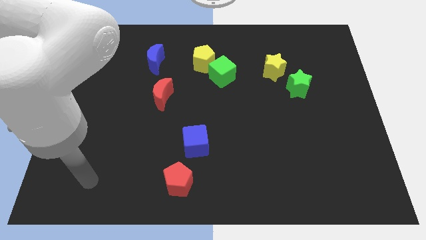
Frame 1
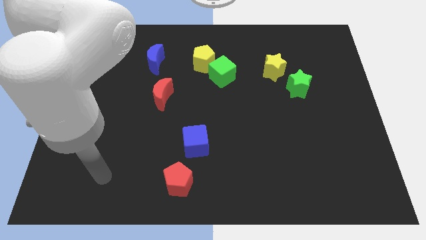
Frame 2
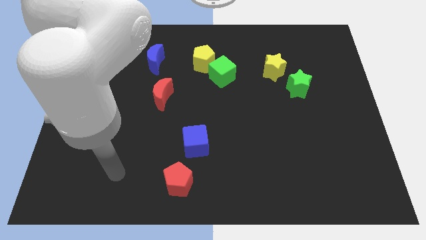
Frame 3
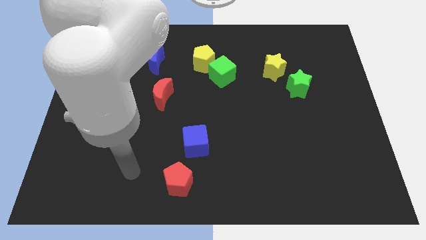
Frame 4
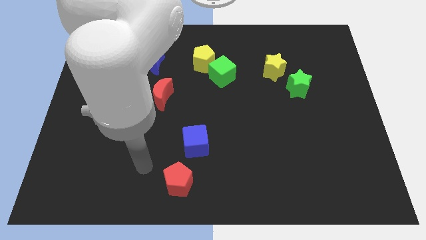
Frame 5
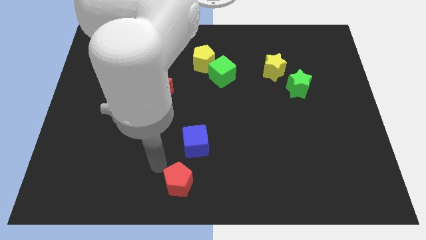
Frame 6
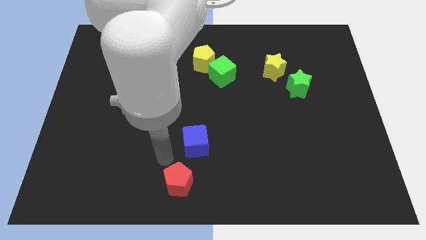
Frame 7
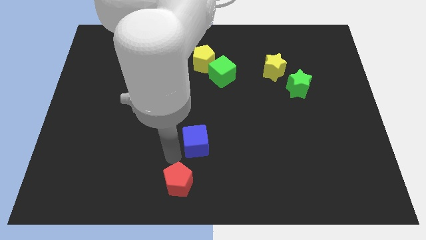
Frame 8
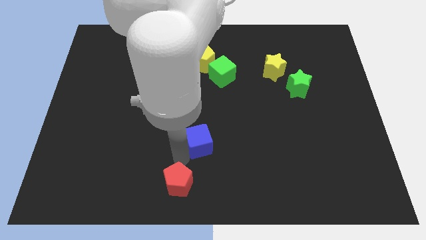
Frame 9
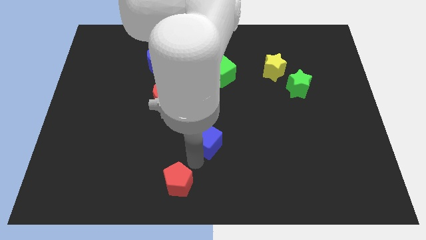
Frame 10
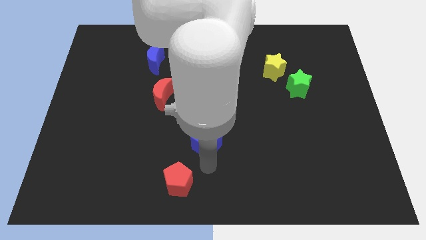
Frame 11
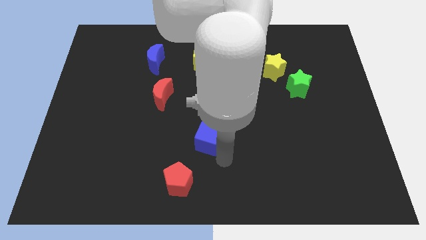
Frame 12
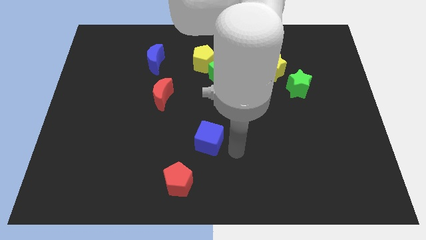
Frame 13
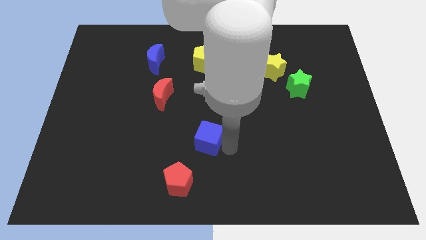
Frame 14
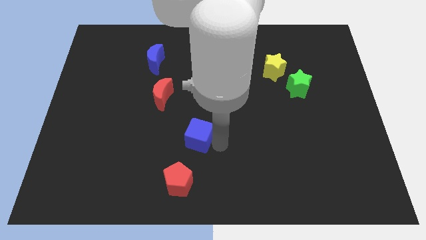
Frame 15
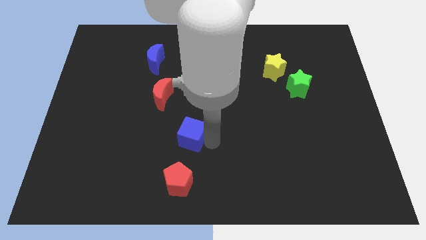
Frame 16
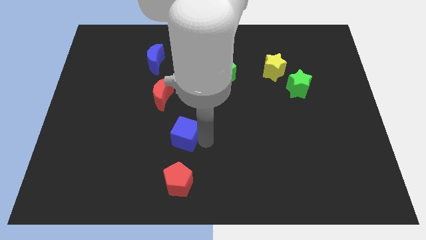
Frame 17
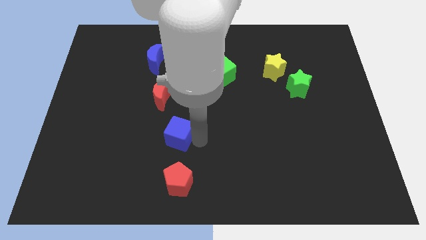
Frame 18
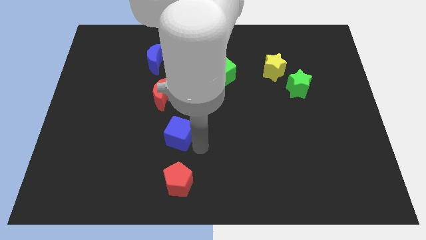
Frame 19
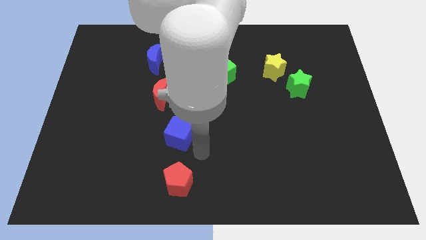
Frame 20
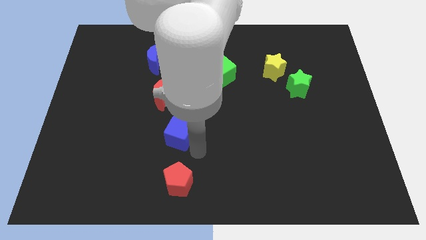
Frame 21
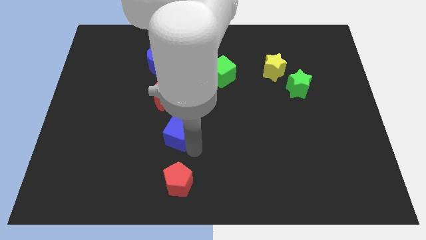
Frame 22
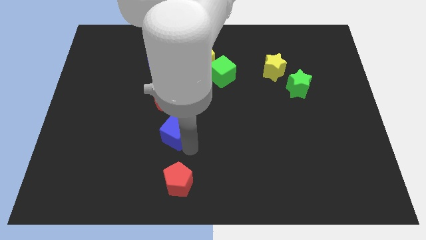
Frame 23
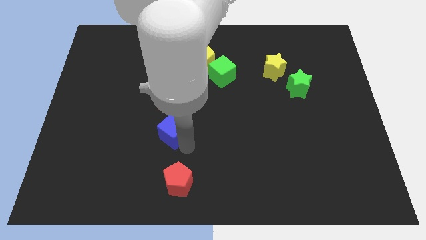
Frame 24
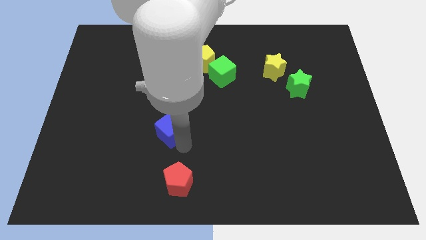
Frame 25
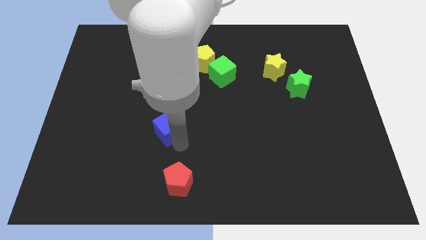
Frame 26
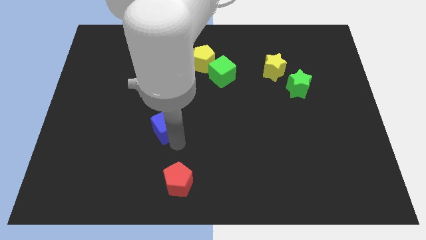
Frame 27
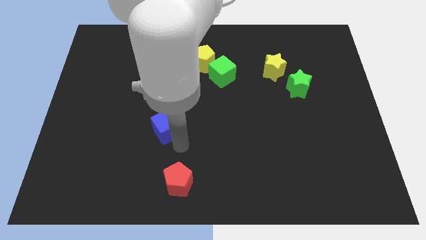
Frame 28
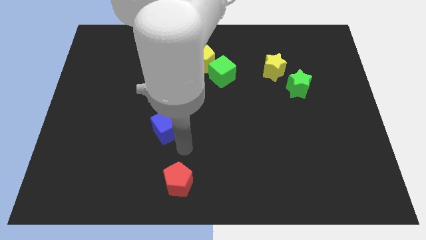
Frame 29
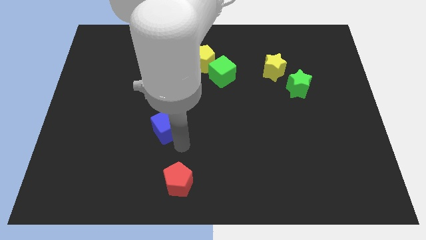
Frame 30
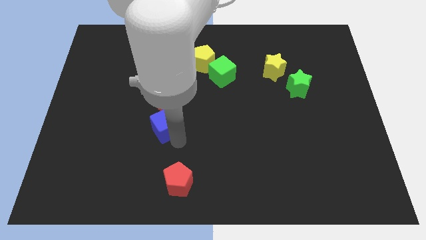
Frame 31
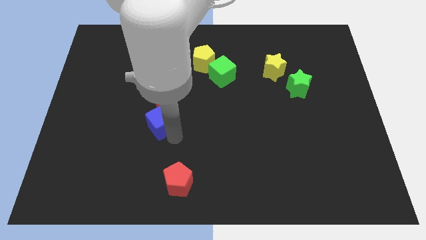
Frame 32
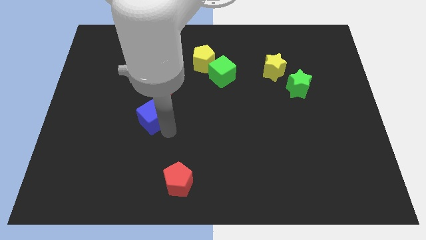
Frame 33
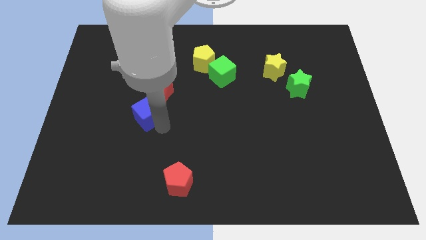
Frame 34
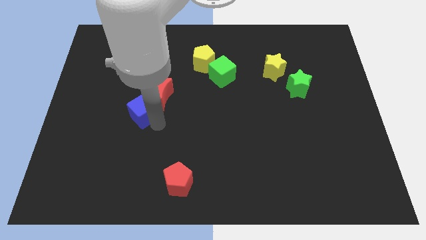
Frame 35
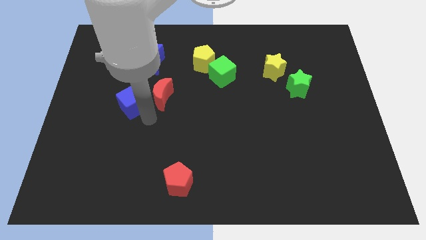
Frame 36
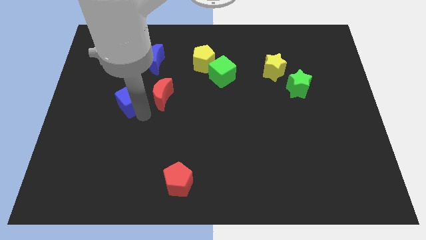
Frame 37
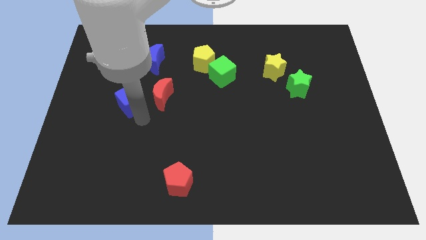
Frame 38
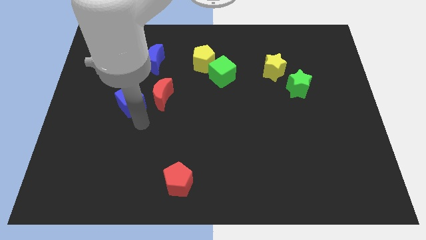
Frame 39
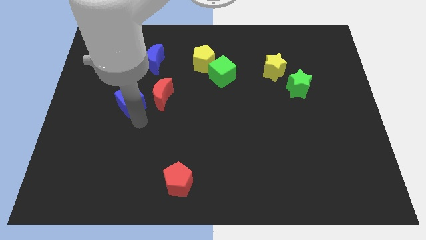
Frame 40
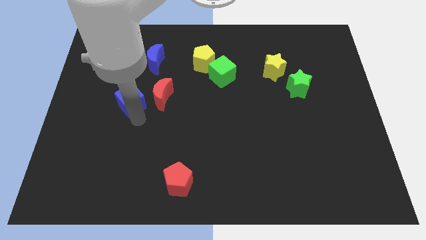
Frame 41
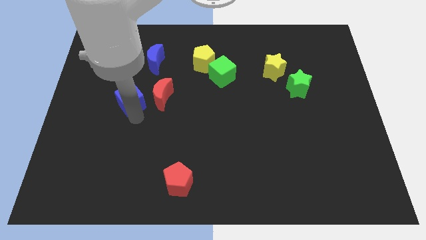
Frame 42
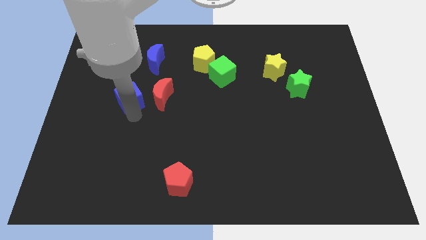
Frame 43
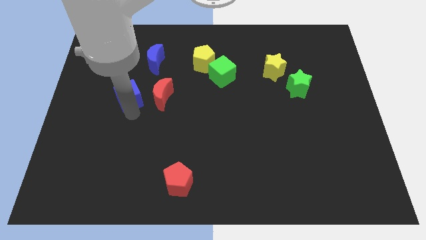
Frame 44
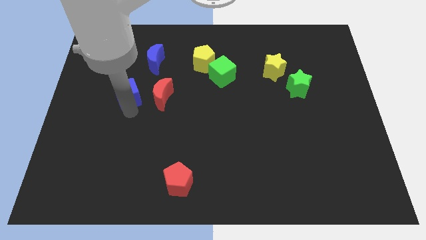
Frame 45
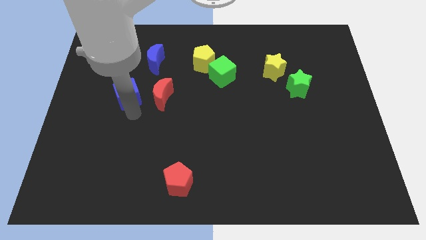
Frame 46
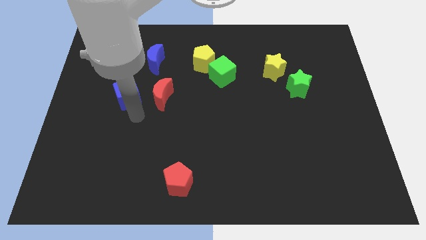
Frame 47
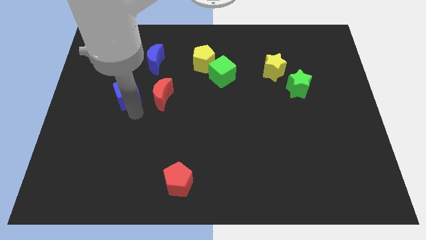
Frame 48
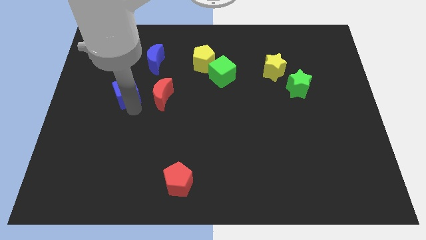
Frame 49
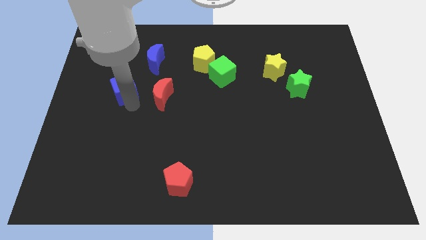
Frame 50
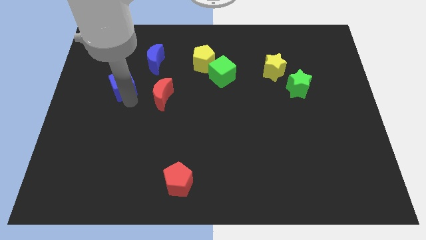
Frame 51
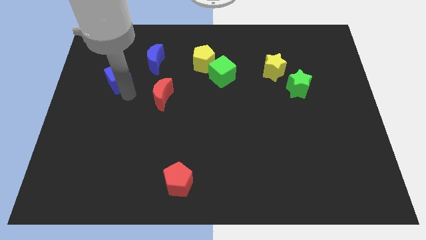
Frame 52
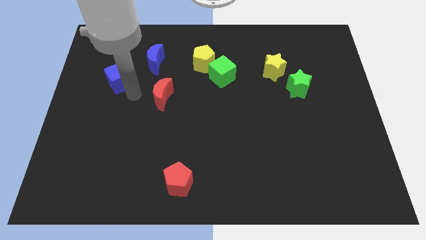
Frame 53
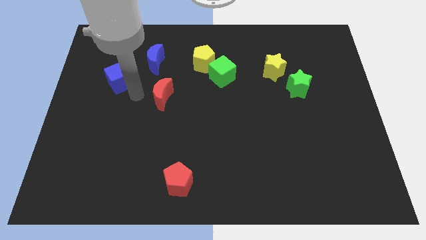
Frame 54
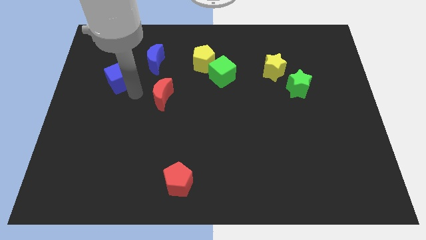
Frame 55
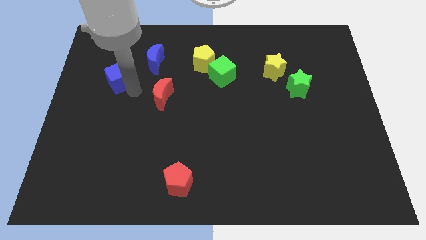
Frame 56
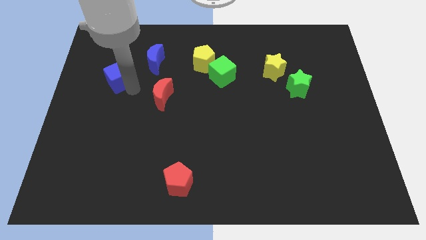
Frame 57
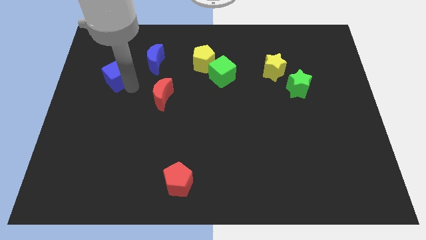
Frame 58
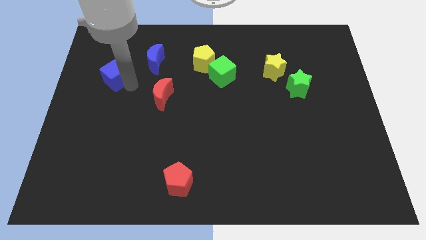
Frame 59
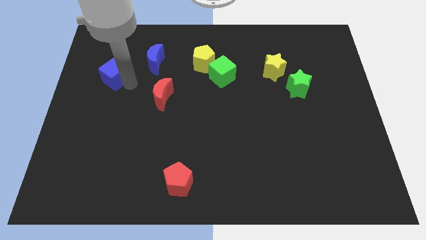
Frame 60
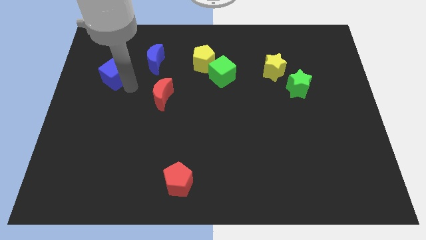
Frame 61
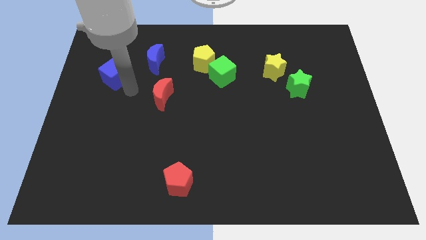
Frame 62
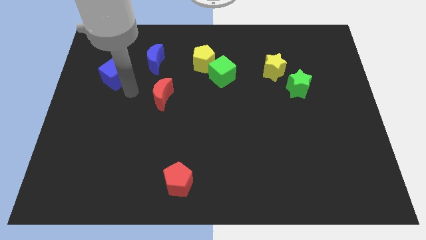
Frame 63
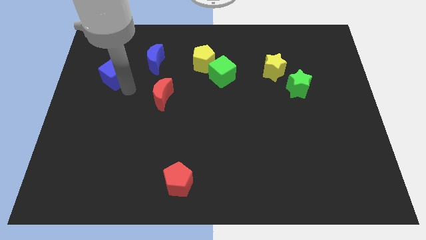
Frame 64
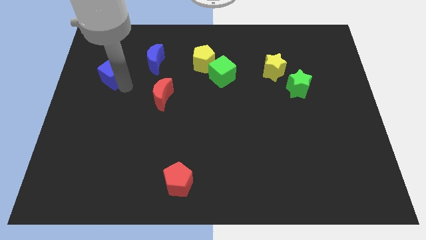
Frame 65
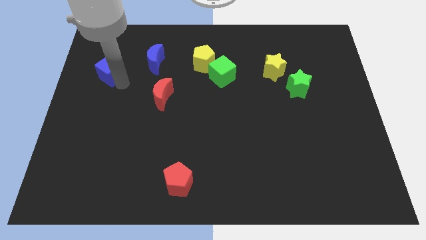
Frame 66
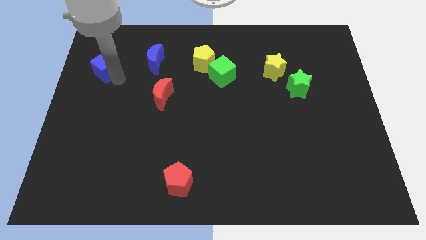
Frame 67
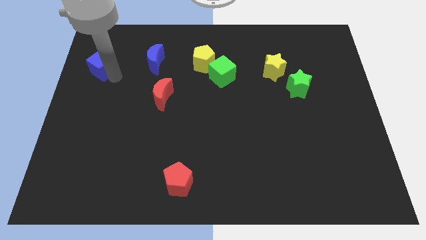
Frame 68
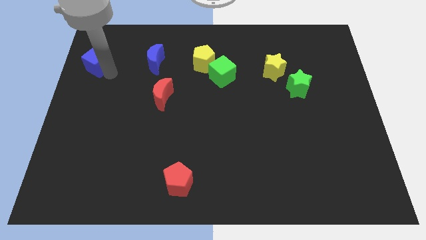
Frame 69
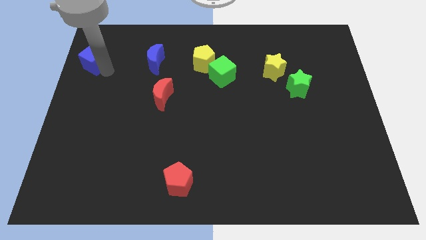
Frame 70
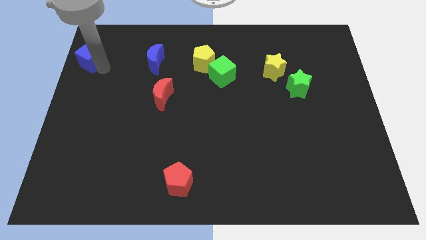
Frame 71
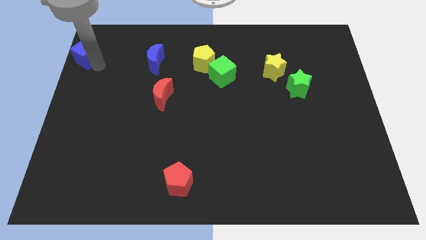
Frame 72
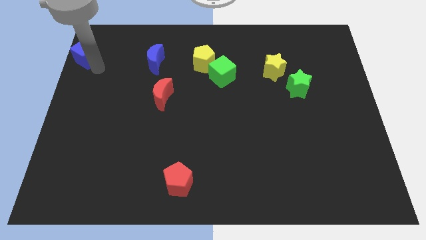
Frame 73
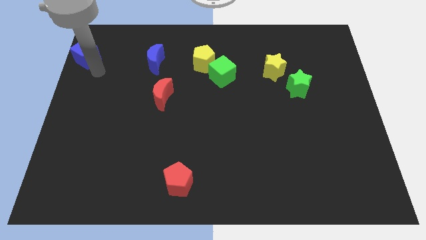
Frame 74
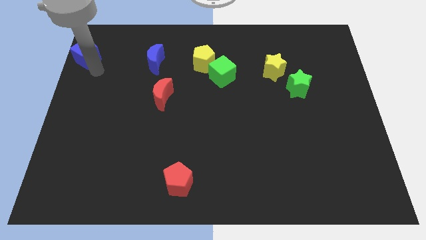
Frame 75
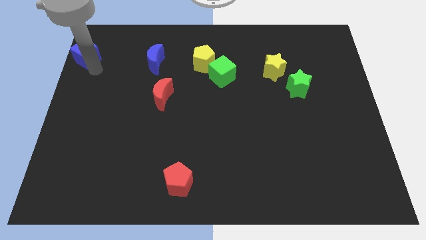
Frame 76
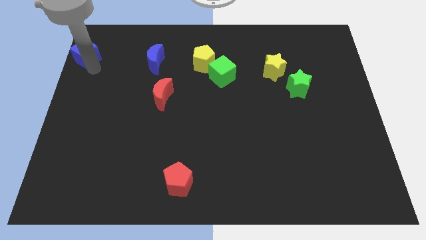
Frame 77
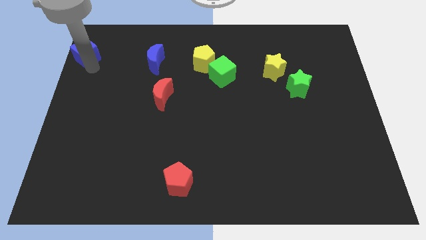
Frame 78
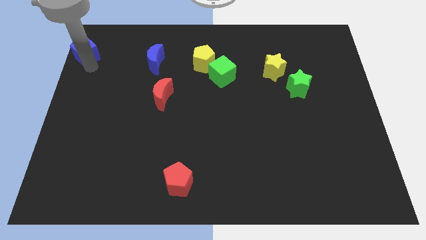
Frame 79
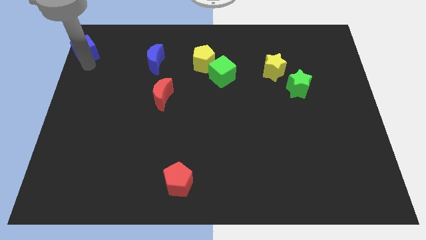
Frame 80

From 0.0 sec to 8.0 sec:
push the blue cube to the upper left corner
